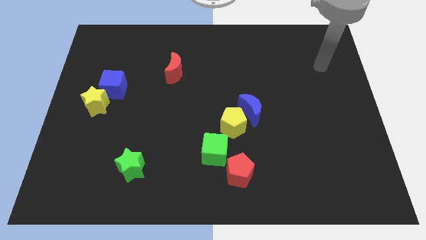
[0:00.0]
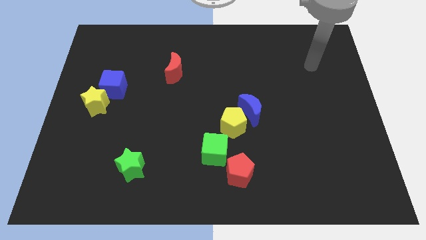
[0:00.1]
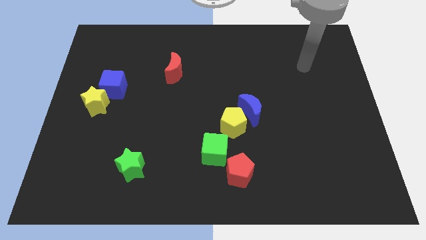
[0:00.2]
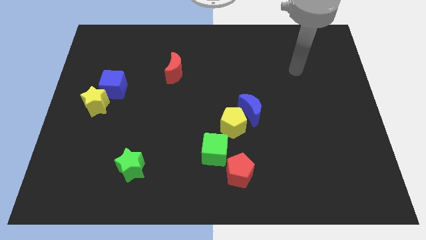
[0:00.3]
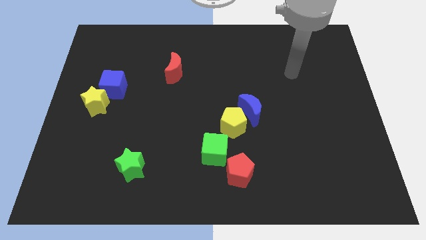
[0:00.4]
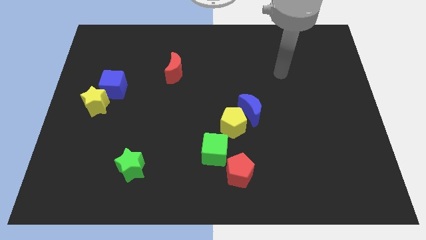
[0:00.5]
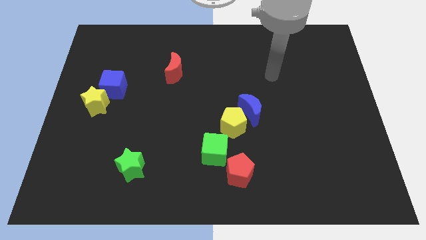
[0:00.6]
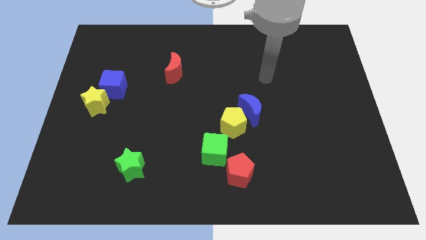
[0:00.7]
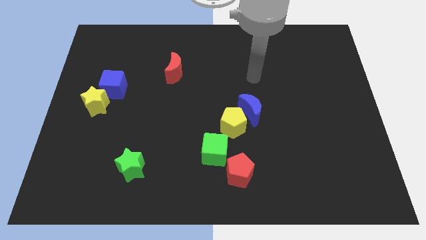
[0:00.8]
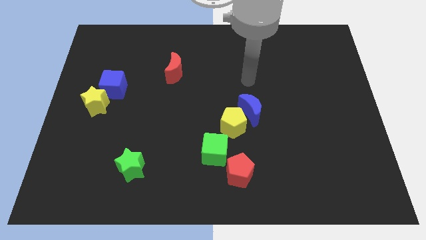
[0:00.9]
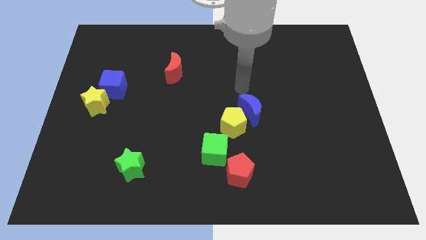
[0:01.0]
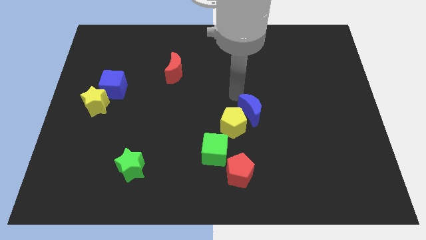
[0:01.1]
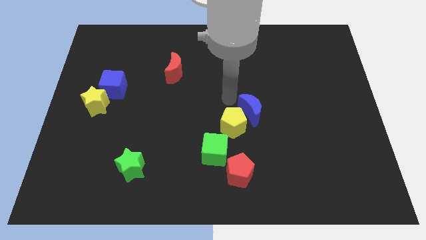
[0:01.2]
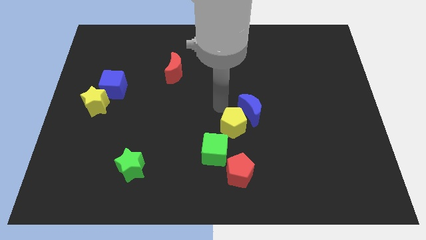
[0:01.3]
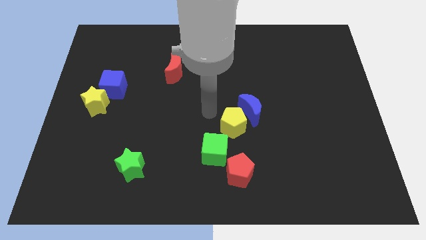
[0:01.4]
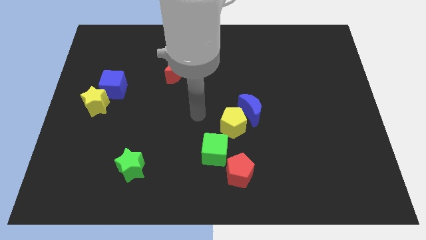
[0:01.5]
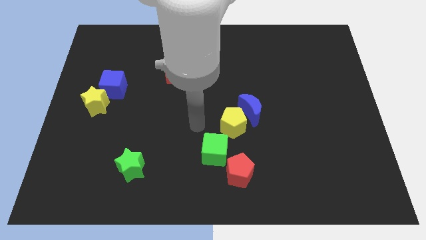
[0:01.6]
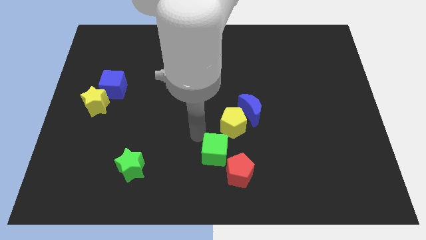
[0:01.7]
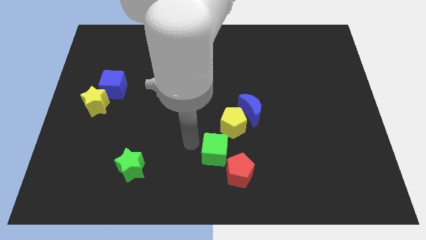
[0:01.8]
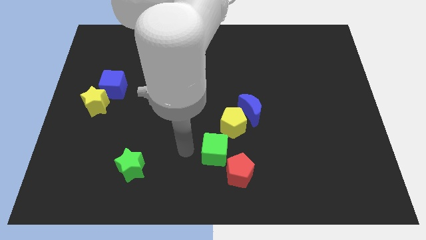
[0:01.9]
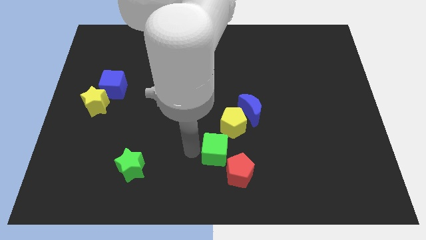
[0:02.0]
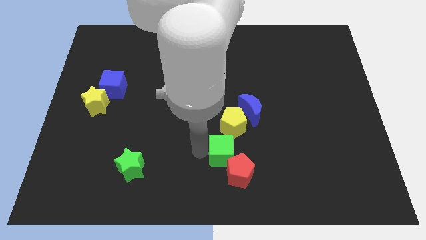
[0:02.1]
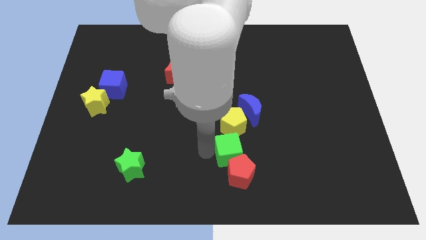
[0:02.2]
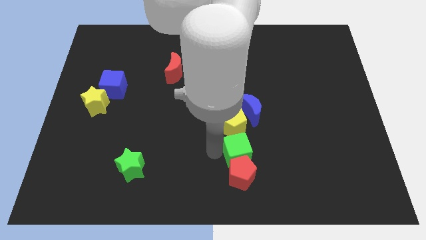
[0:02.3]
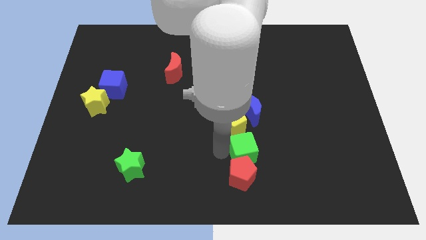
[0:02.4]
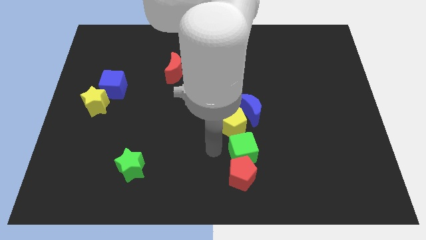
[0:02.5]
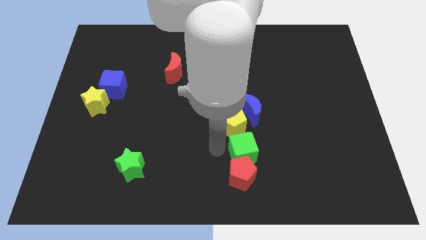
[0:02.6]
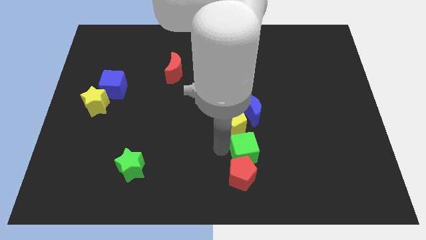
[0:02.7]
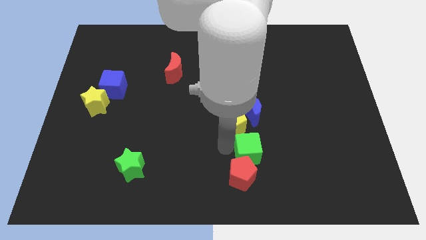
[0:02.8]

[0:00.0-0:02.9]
push the green cube to the right a bit

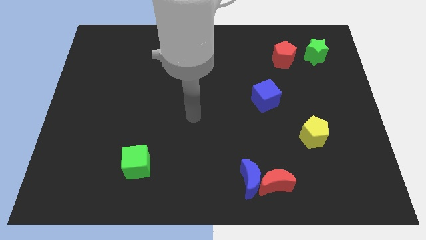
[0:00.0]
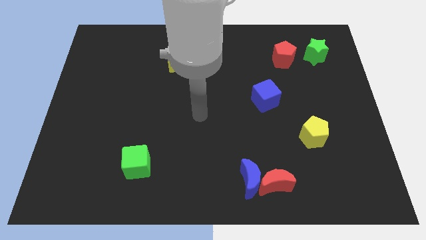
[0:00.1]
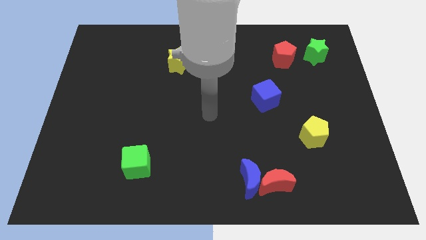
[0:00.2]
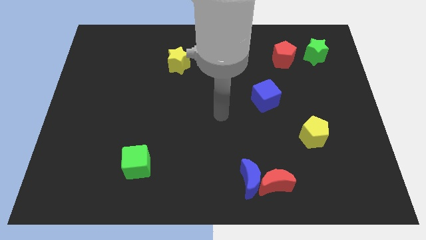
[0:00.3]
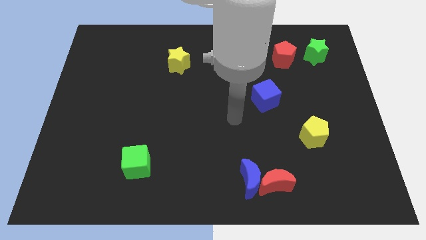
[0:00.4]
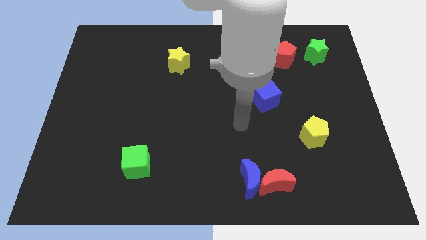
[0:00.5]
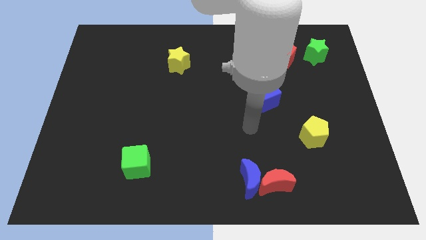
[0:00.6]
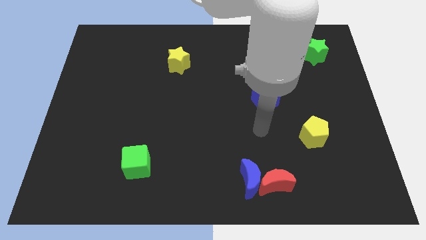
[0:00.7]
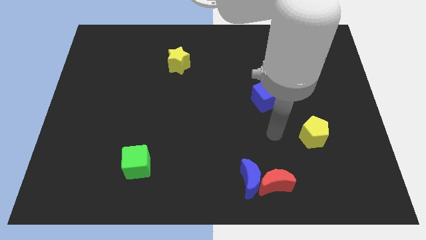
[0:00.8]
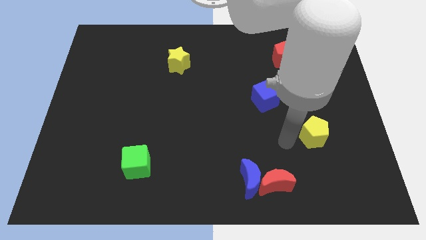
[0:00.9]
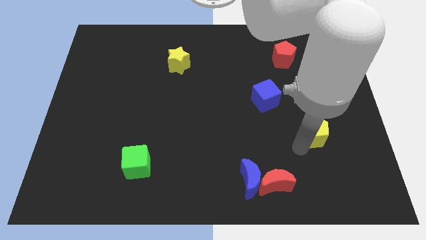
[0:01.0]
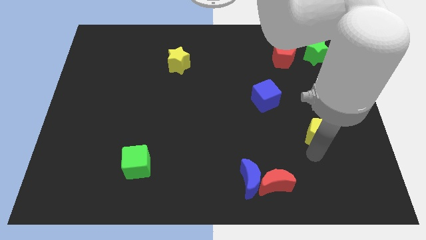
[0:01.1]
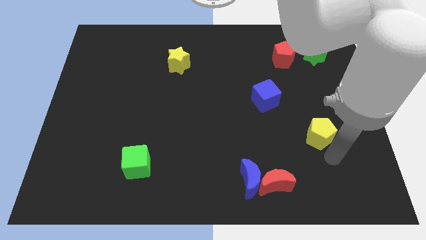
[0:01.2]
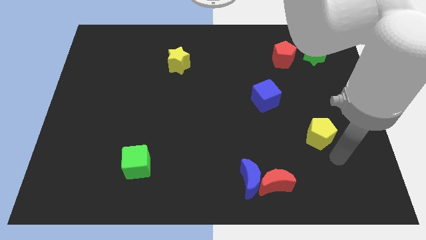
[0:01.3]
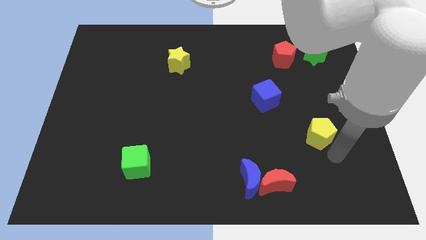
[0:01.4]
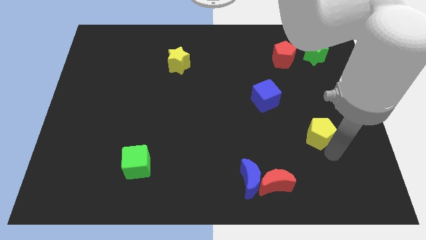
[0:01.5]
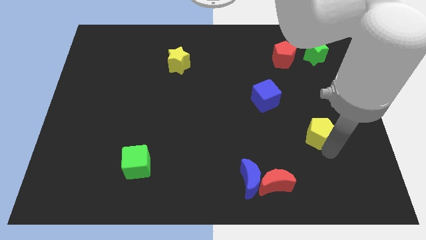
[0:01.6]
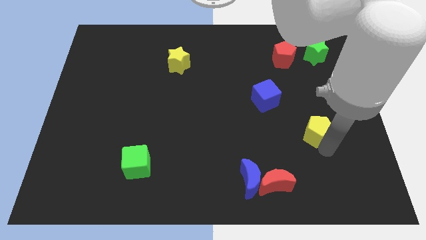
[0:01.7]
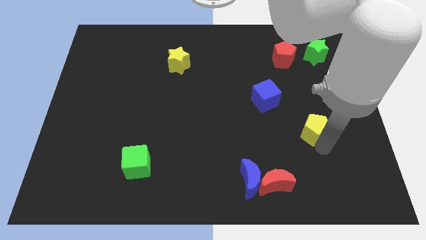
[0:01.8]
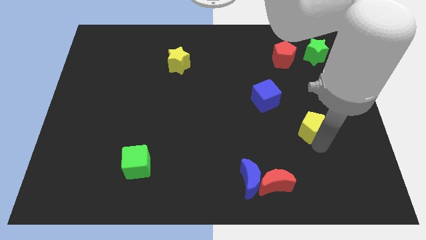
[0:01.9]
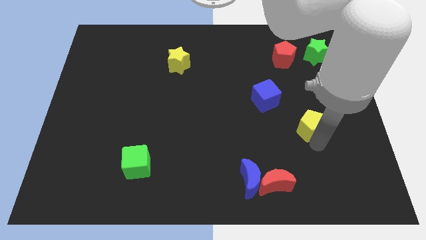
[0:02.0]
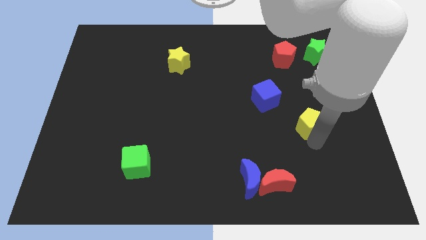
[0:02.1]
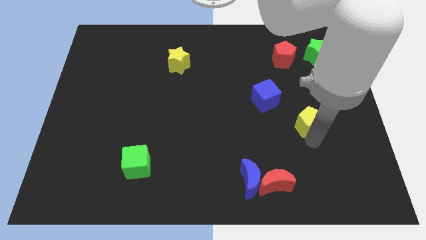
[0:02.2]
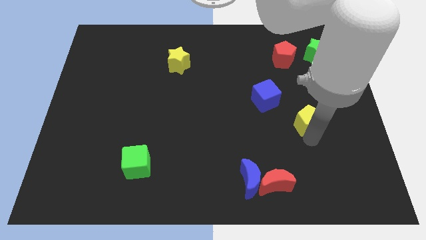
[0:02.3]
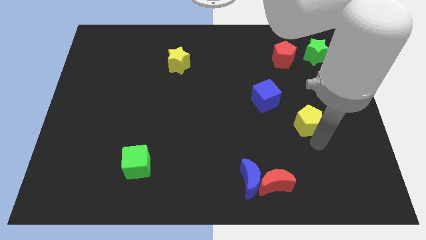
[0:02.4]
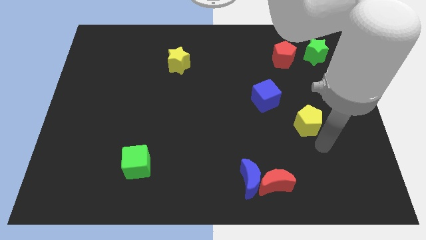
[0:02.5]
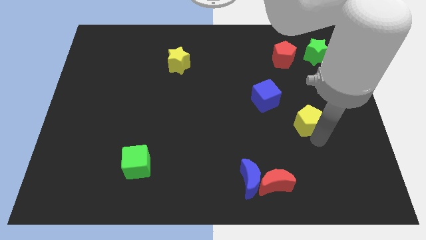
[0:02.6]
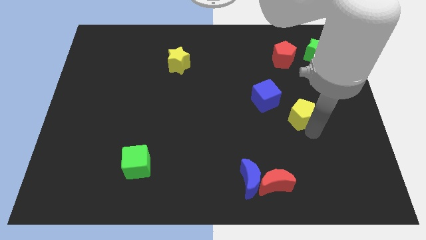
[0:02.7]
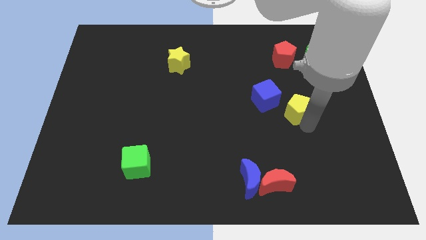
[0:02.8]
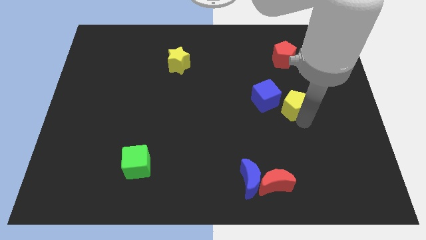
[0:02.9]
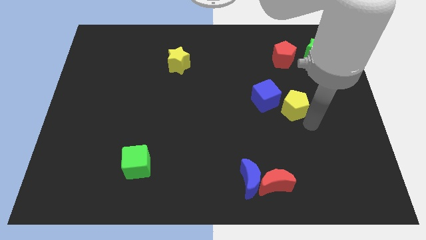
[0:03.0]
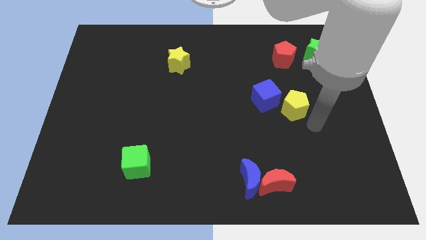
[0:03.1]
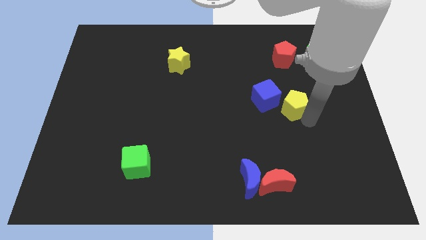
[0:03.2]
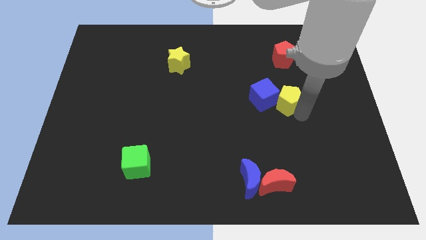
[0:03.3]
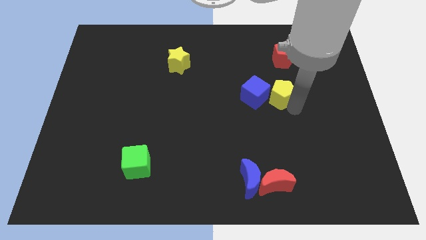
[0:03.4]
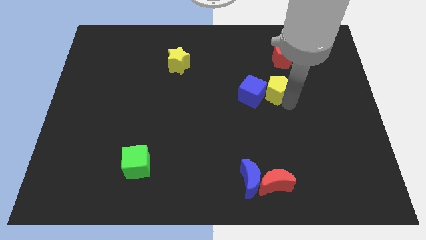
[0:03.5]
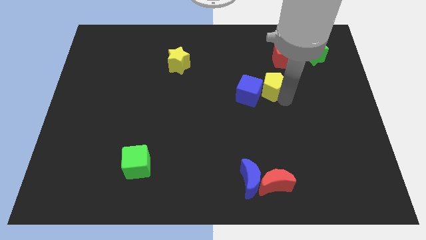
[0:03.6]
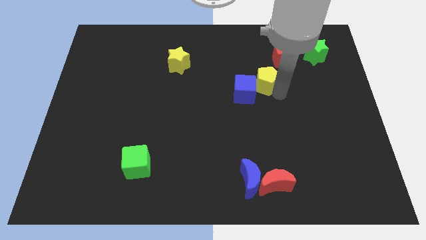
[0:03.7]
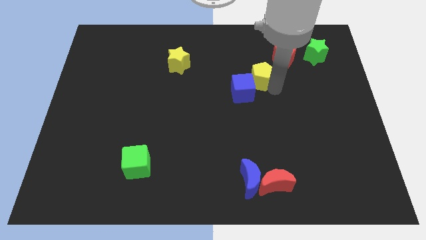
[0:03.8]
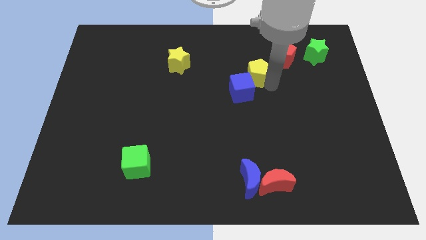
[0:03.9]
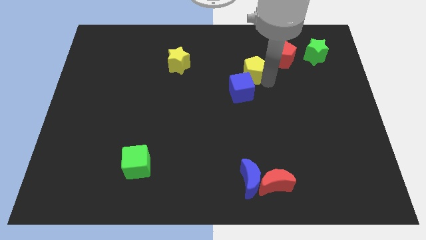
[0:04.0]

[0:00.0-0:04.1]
push the yellow pentagon up and then to the left

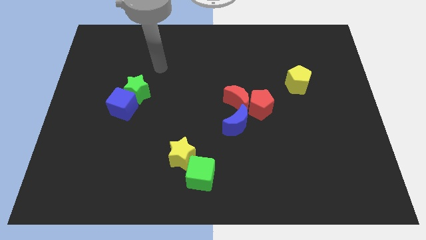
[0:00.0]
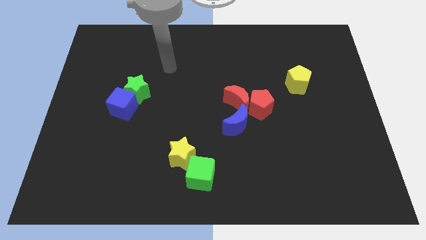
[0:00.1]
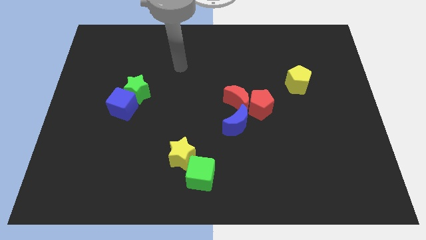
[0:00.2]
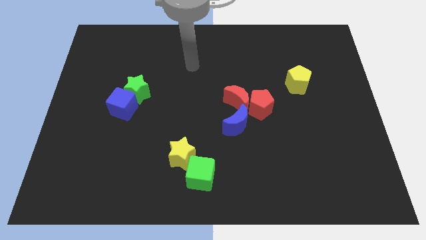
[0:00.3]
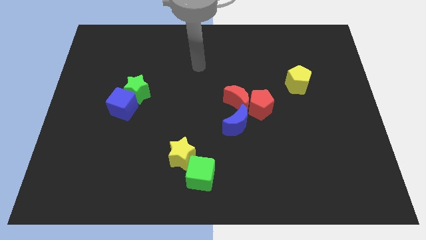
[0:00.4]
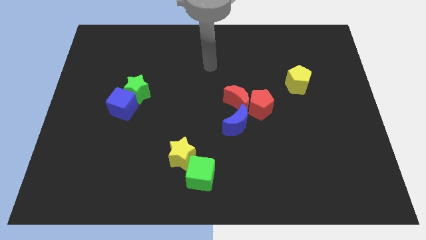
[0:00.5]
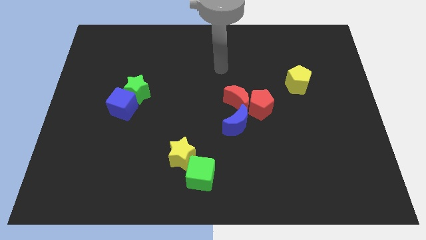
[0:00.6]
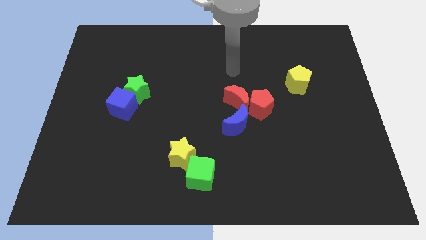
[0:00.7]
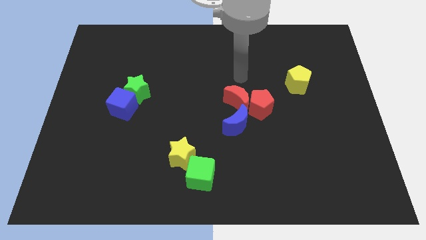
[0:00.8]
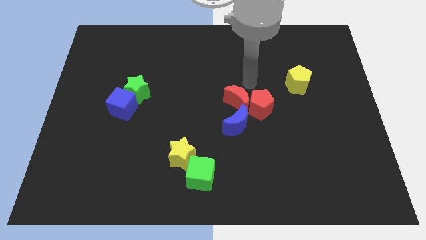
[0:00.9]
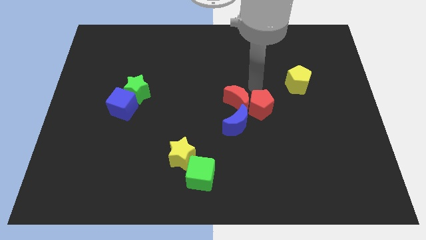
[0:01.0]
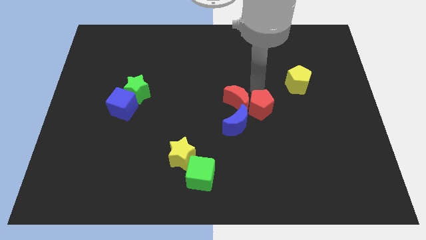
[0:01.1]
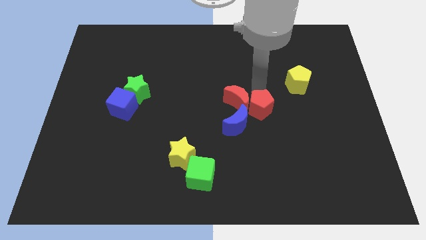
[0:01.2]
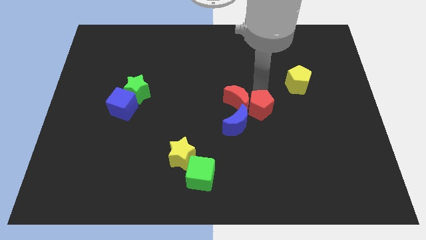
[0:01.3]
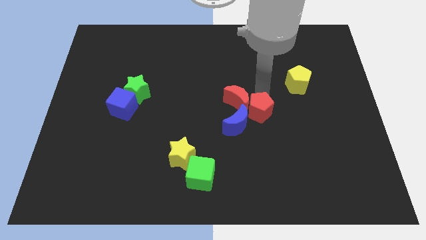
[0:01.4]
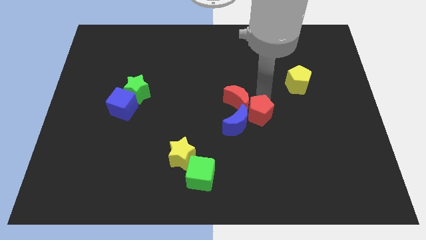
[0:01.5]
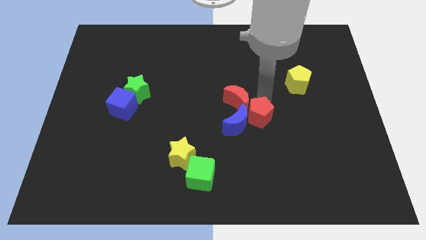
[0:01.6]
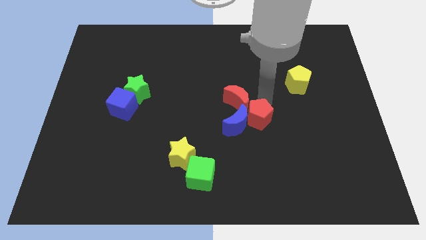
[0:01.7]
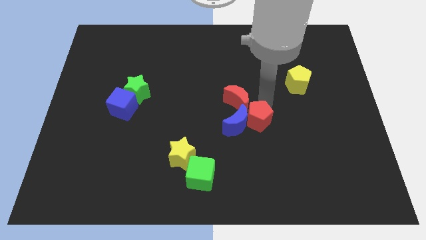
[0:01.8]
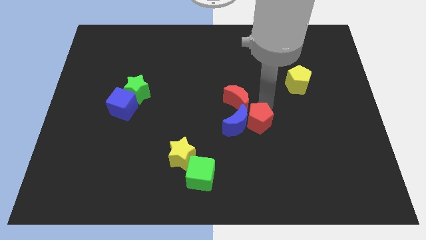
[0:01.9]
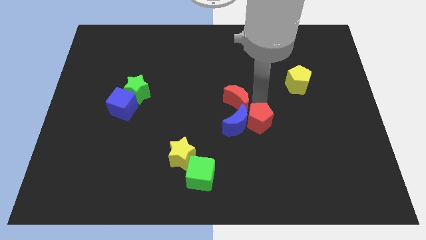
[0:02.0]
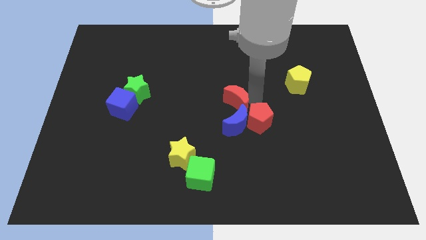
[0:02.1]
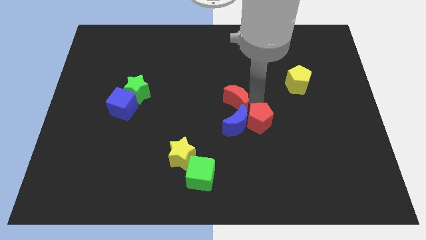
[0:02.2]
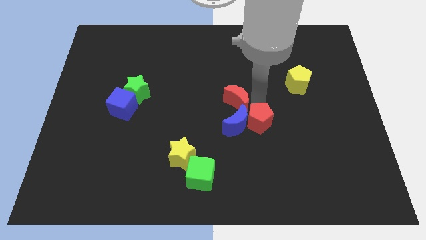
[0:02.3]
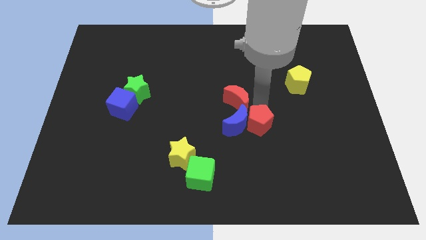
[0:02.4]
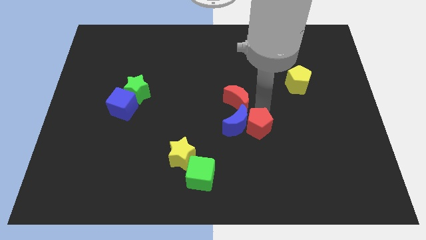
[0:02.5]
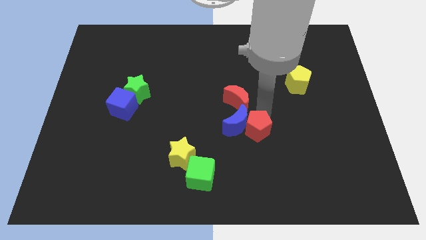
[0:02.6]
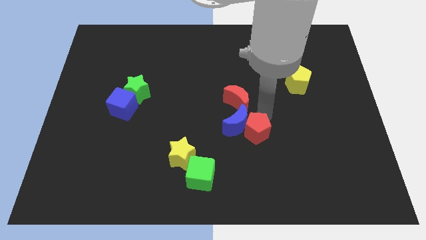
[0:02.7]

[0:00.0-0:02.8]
slide the red pentagon a little down
